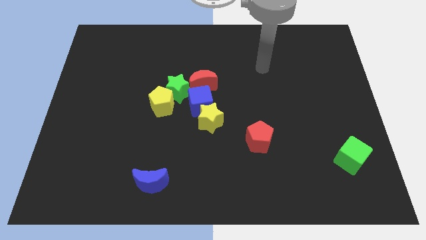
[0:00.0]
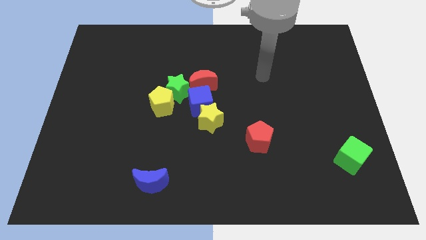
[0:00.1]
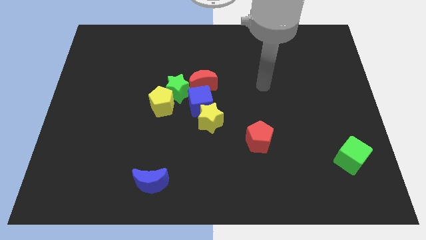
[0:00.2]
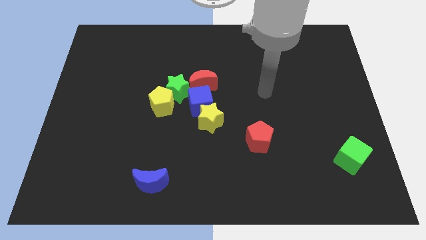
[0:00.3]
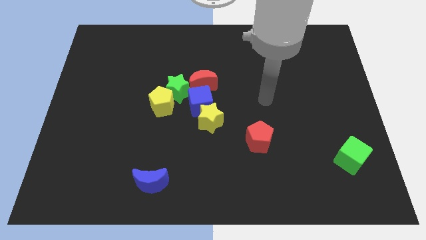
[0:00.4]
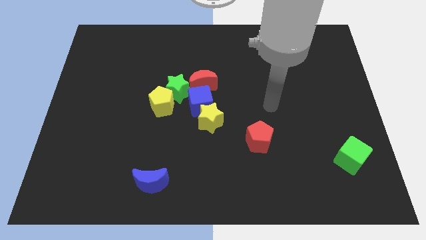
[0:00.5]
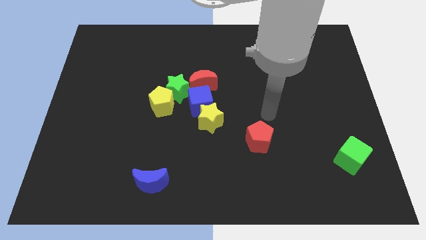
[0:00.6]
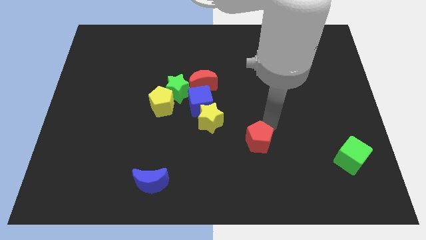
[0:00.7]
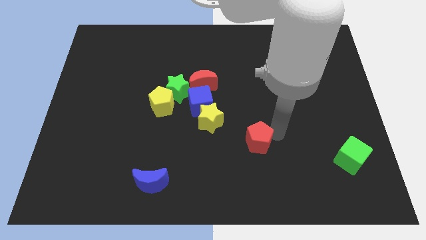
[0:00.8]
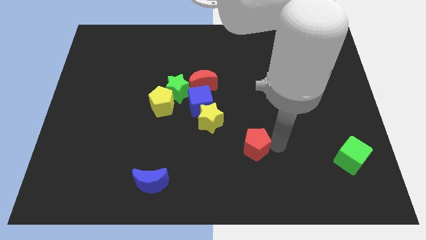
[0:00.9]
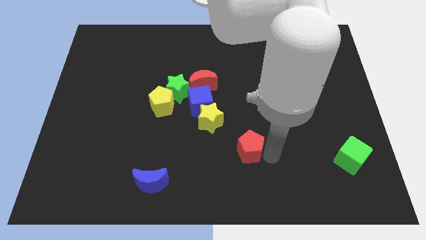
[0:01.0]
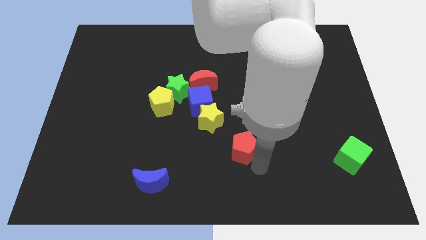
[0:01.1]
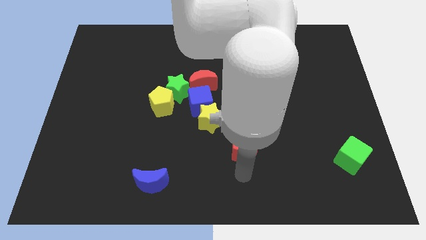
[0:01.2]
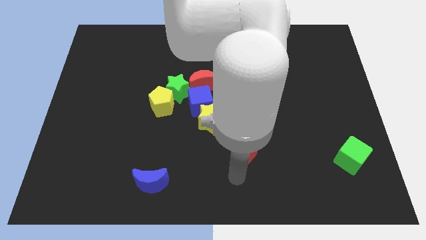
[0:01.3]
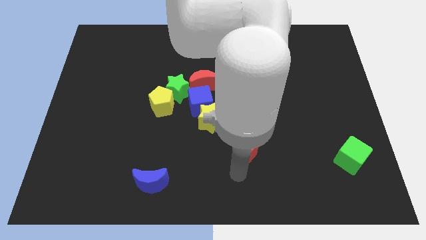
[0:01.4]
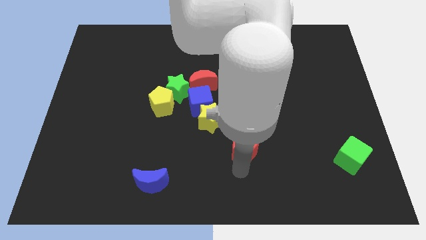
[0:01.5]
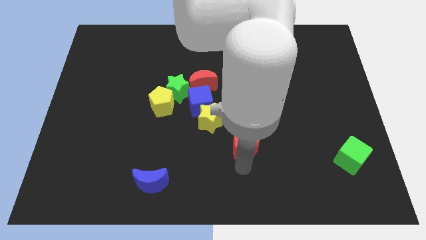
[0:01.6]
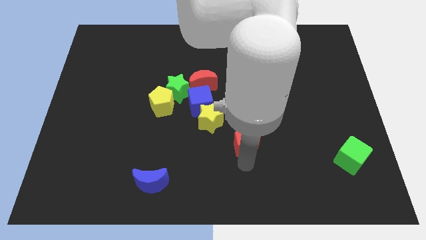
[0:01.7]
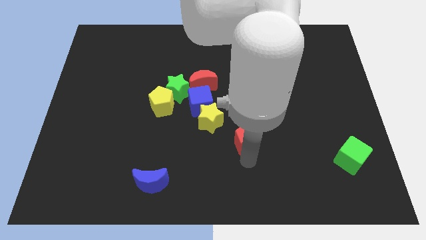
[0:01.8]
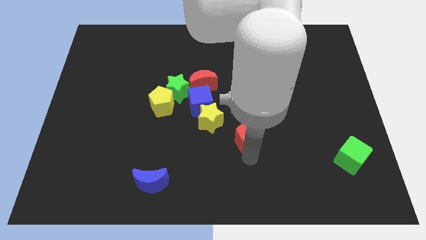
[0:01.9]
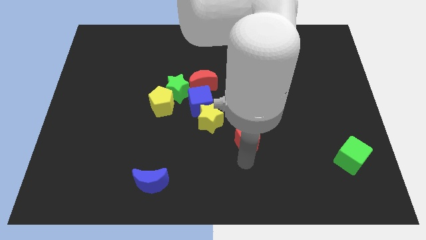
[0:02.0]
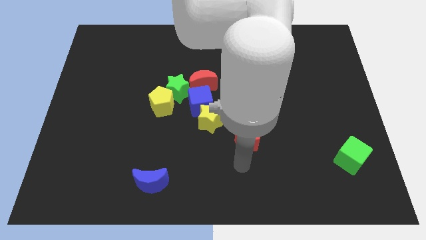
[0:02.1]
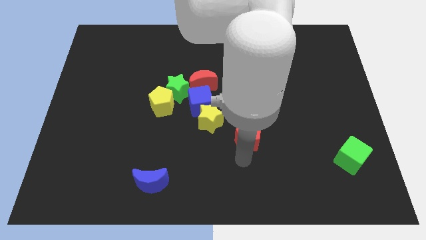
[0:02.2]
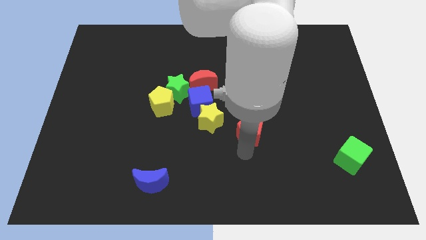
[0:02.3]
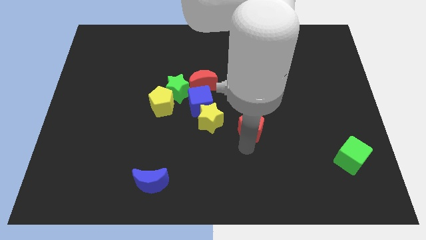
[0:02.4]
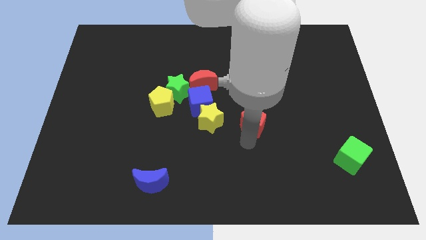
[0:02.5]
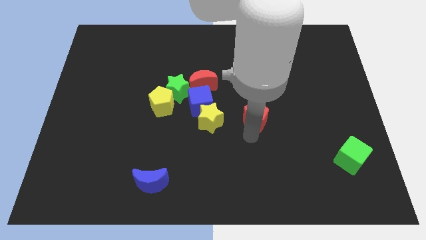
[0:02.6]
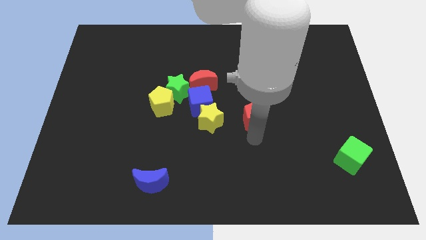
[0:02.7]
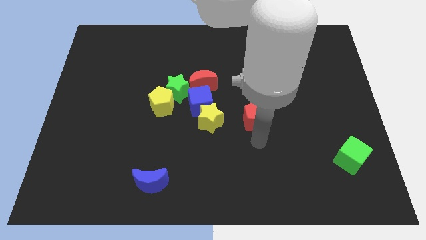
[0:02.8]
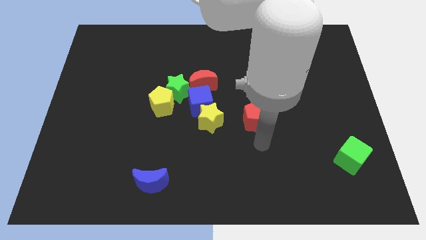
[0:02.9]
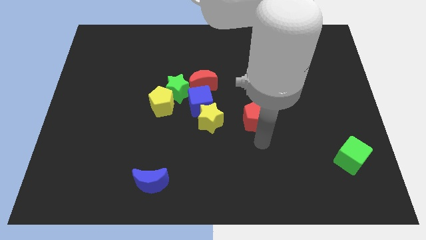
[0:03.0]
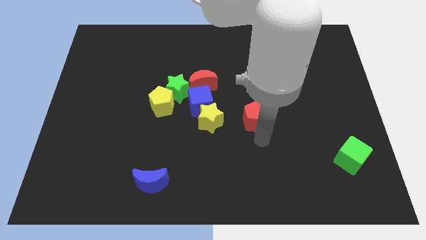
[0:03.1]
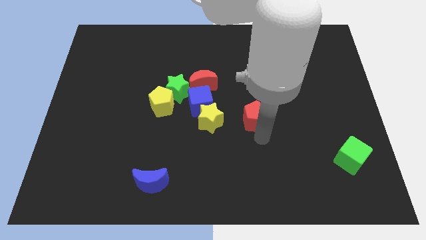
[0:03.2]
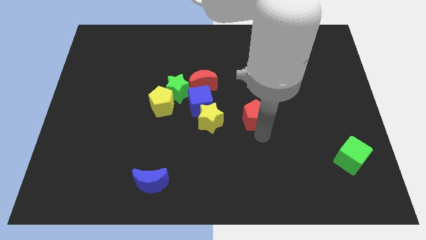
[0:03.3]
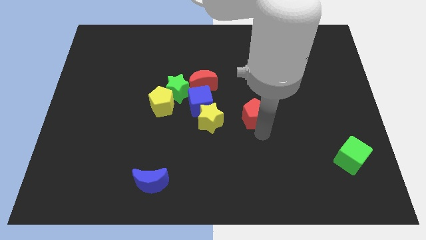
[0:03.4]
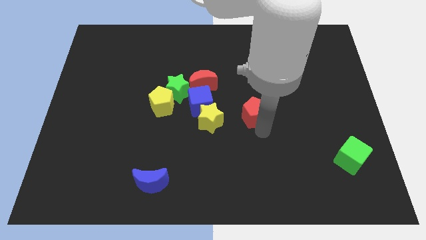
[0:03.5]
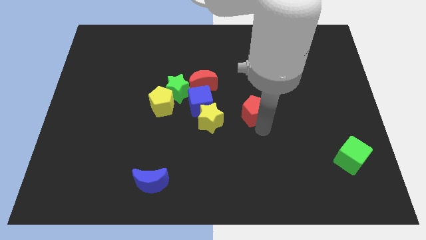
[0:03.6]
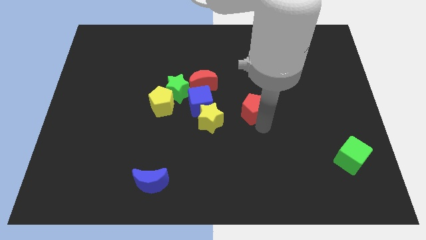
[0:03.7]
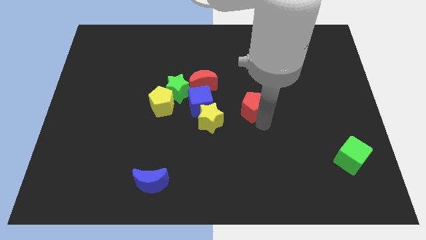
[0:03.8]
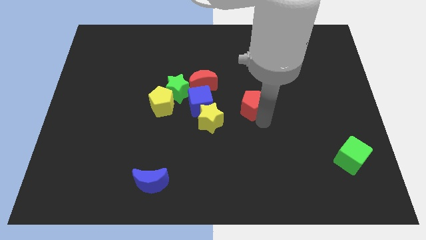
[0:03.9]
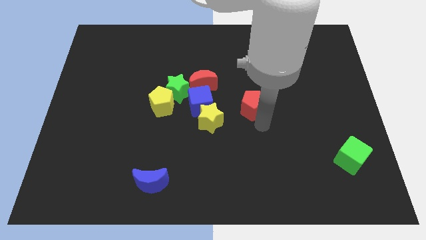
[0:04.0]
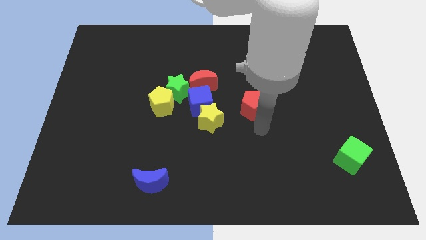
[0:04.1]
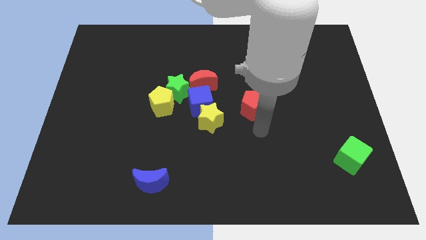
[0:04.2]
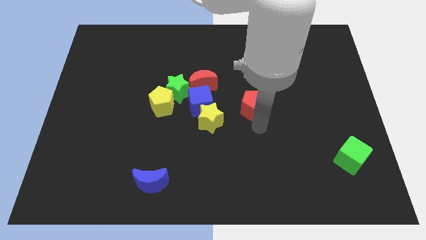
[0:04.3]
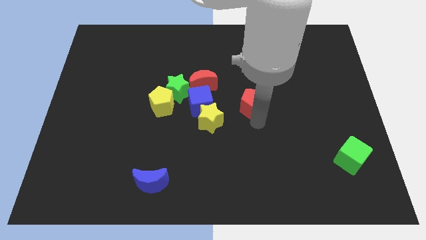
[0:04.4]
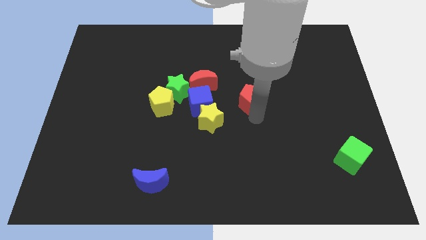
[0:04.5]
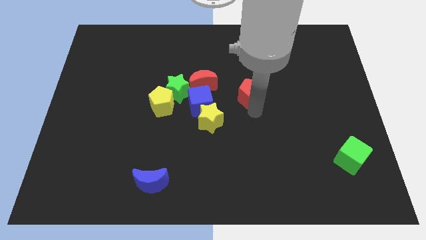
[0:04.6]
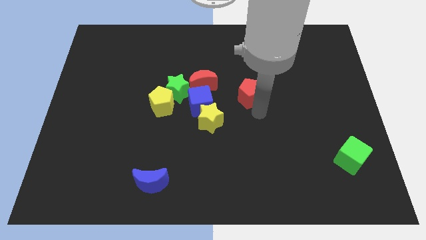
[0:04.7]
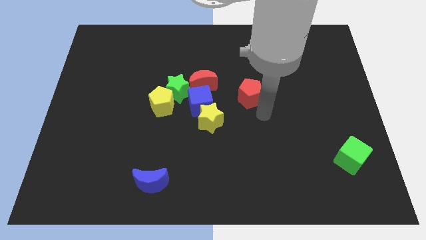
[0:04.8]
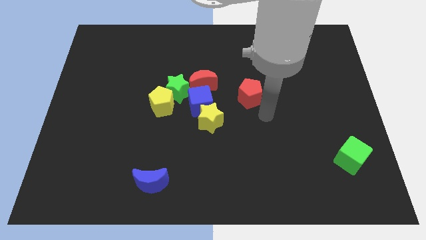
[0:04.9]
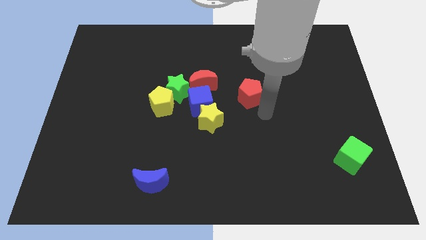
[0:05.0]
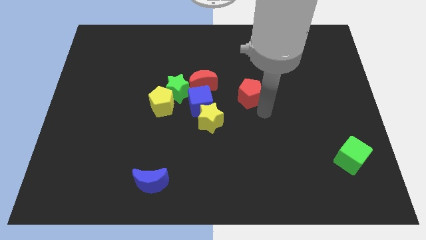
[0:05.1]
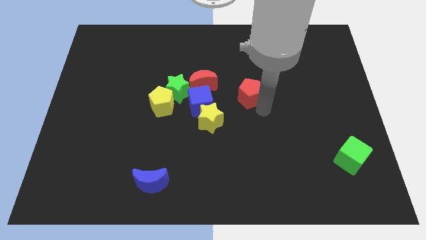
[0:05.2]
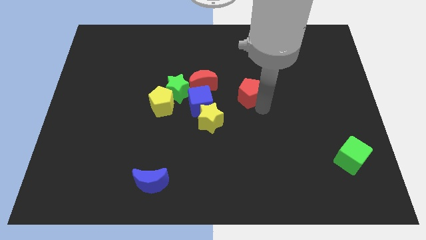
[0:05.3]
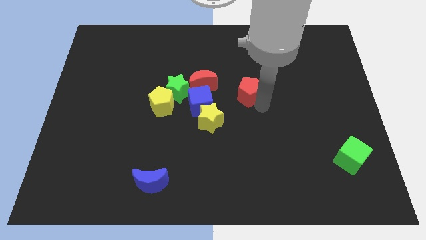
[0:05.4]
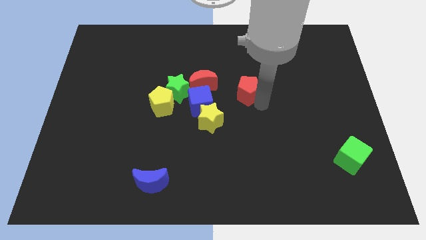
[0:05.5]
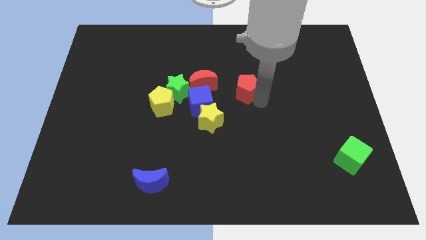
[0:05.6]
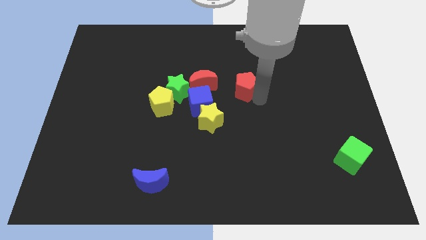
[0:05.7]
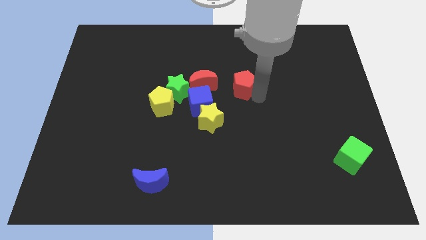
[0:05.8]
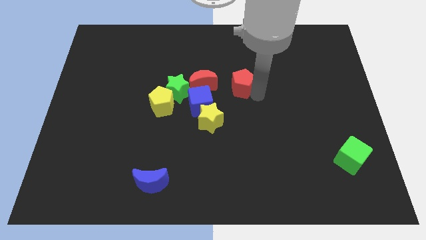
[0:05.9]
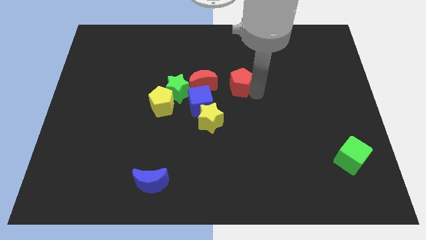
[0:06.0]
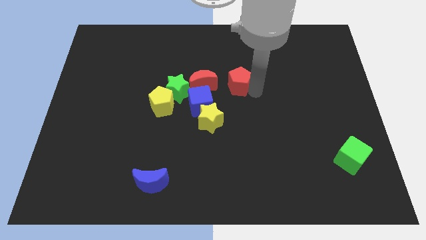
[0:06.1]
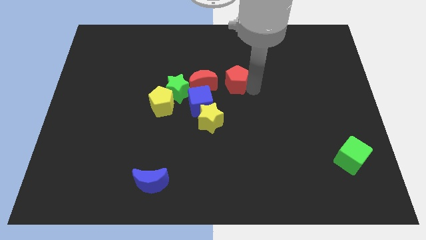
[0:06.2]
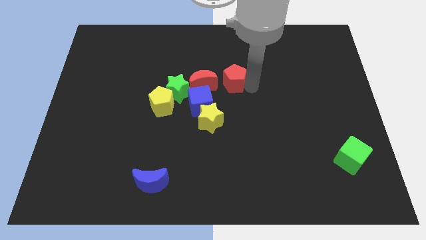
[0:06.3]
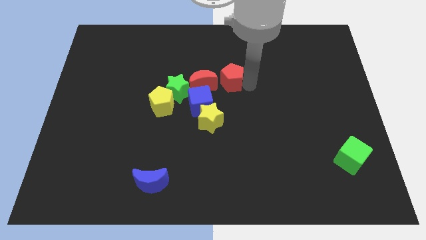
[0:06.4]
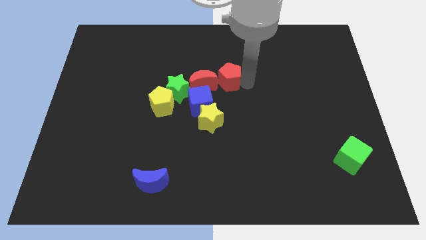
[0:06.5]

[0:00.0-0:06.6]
slide the red pentagon to the top side of the yellow star

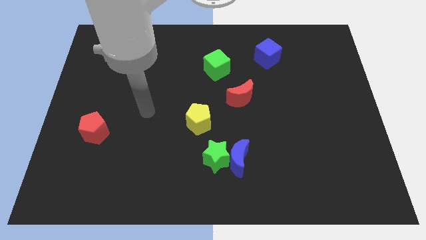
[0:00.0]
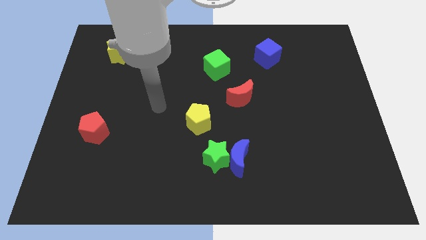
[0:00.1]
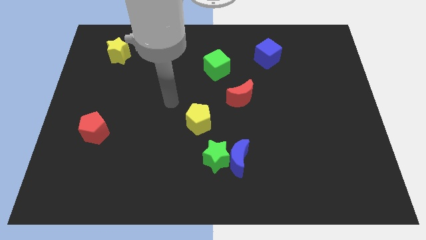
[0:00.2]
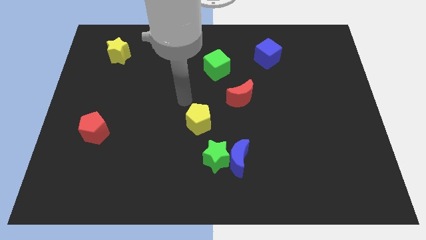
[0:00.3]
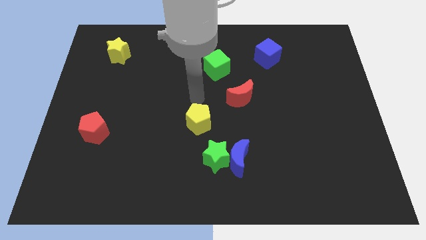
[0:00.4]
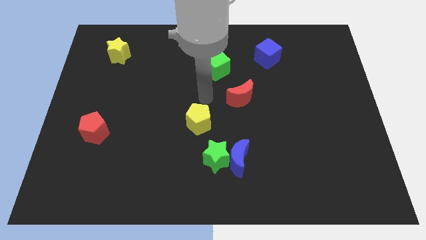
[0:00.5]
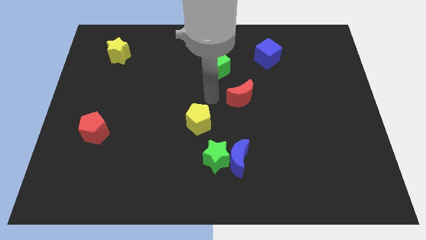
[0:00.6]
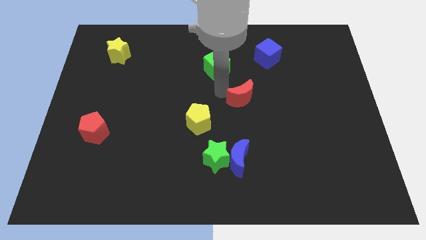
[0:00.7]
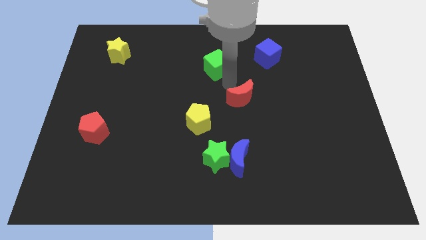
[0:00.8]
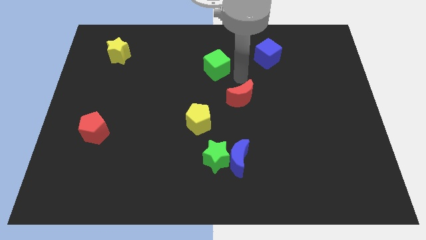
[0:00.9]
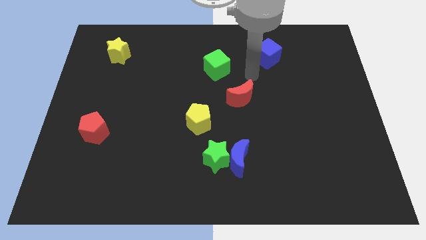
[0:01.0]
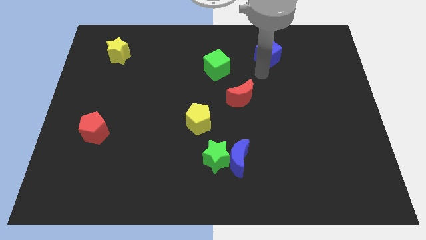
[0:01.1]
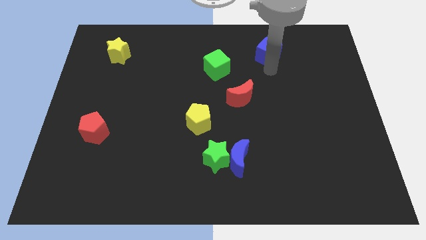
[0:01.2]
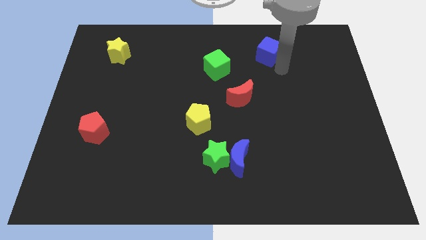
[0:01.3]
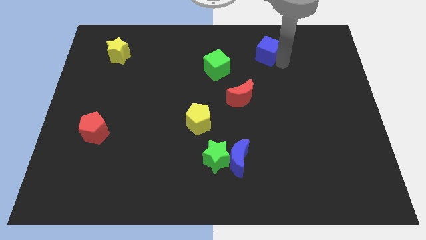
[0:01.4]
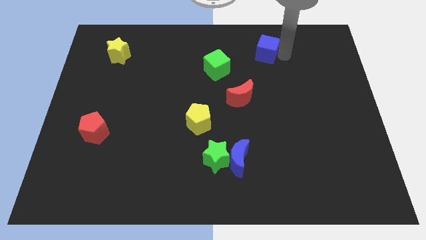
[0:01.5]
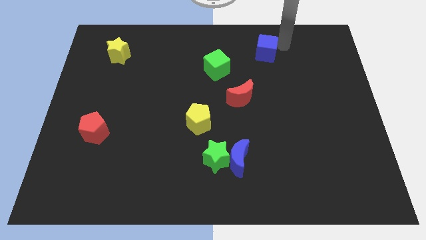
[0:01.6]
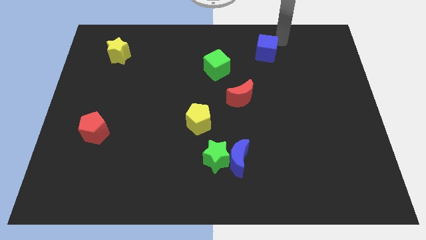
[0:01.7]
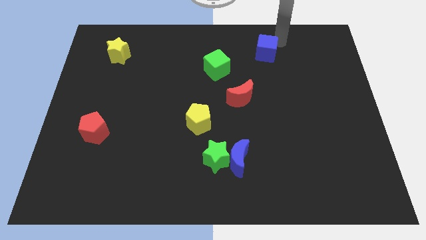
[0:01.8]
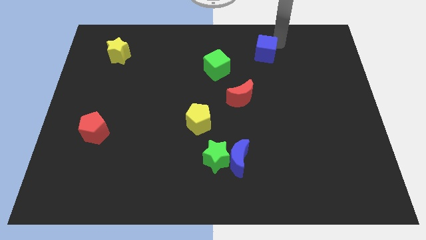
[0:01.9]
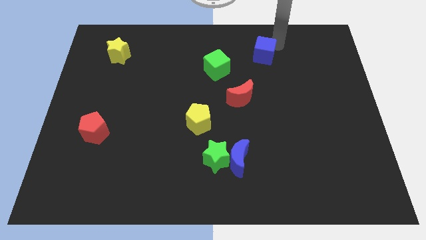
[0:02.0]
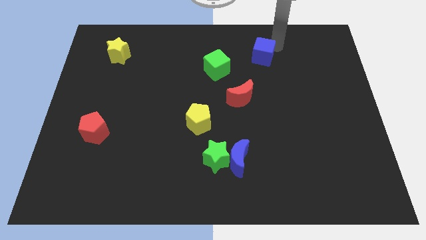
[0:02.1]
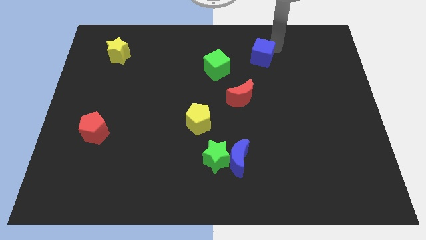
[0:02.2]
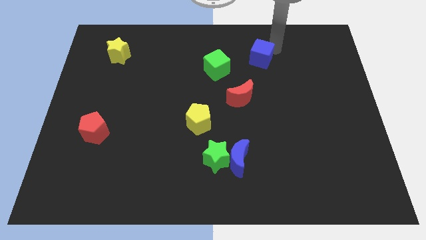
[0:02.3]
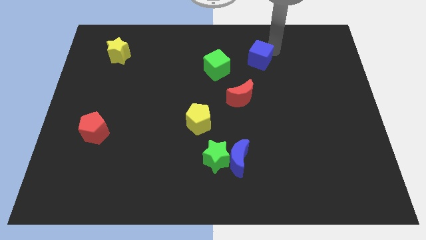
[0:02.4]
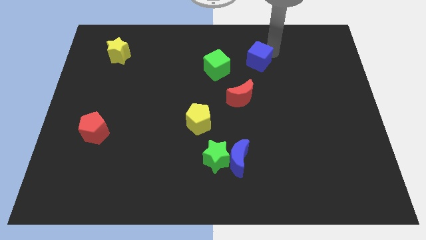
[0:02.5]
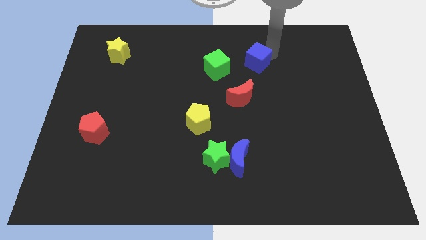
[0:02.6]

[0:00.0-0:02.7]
slide the blue cube above the red moon
